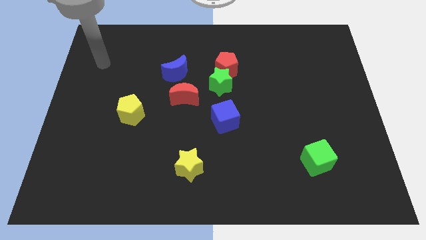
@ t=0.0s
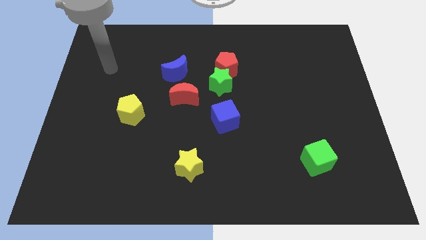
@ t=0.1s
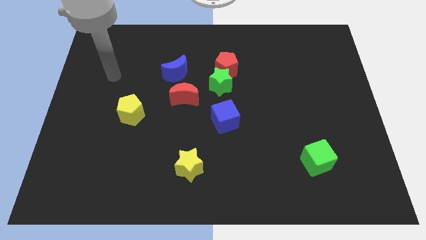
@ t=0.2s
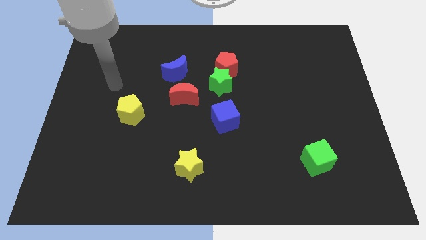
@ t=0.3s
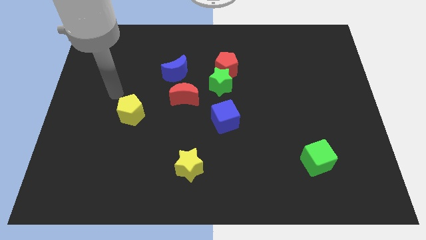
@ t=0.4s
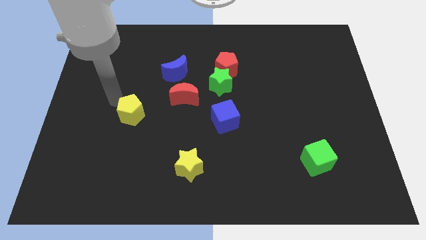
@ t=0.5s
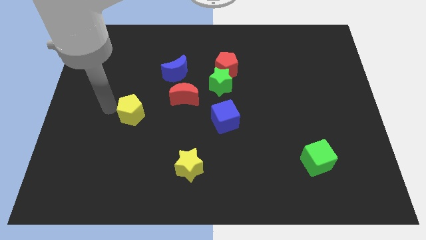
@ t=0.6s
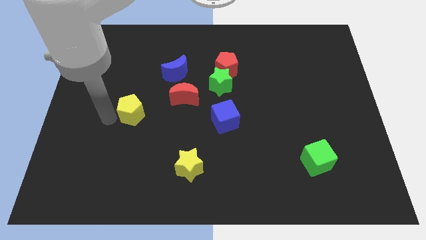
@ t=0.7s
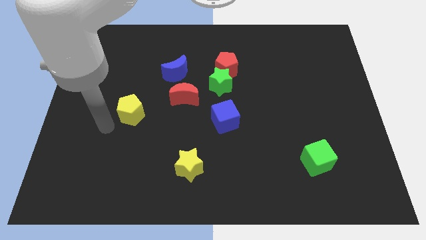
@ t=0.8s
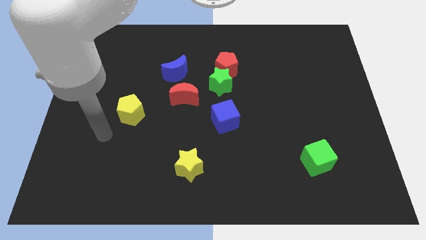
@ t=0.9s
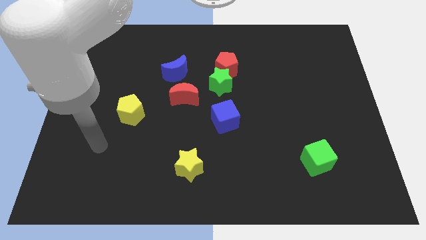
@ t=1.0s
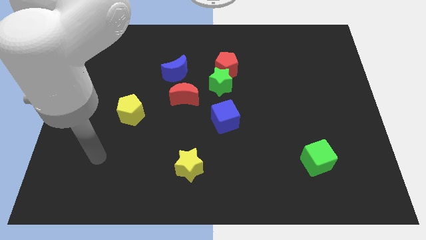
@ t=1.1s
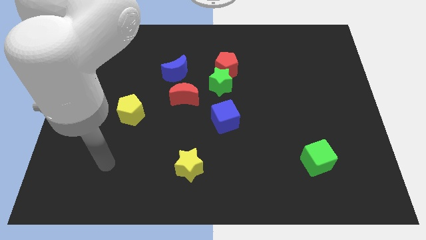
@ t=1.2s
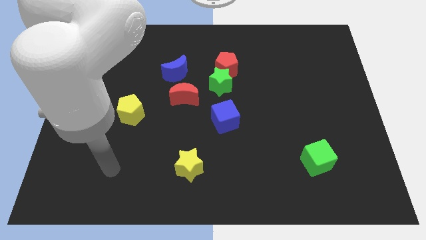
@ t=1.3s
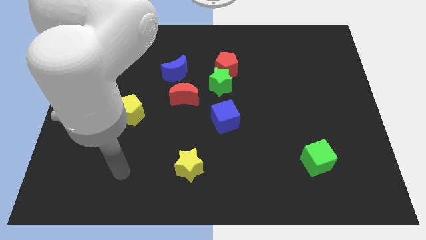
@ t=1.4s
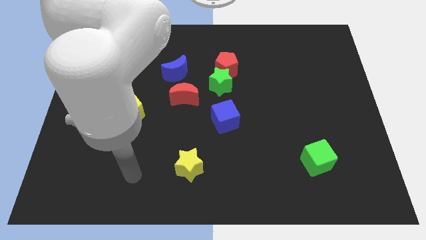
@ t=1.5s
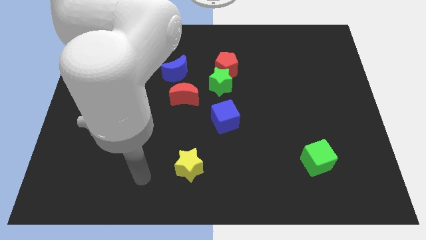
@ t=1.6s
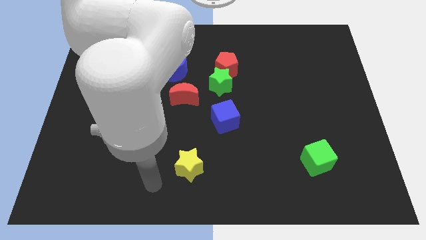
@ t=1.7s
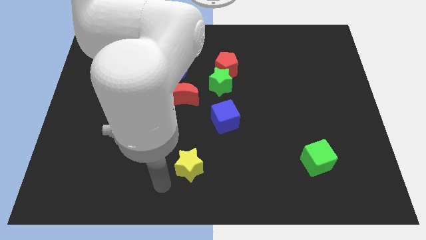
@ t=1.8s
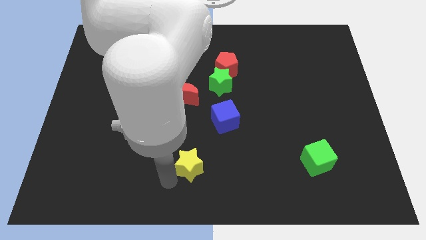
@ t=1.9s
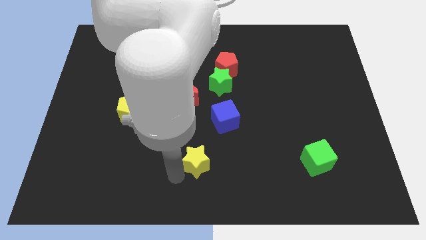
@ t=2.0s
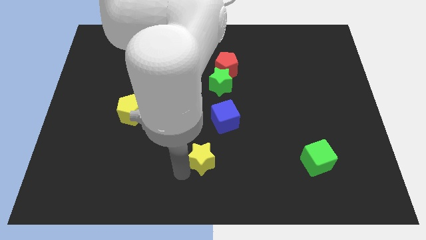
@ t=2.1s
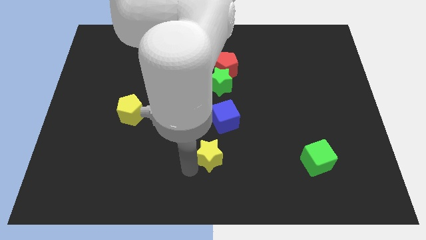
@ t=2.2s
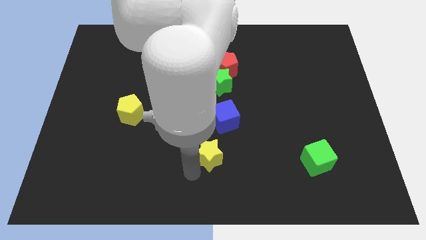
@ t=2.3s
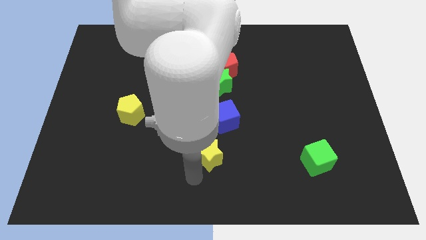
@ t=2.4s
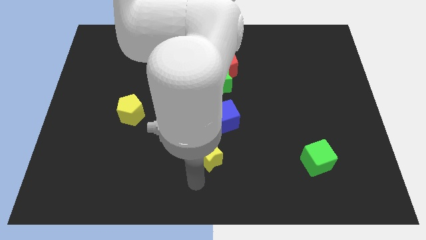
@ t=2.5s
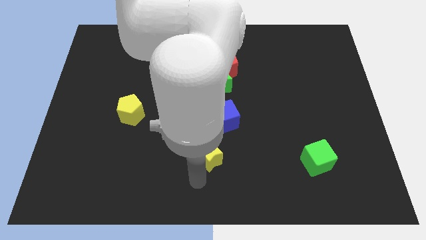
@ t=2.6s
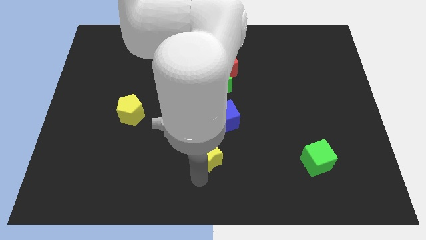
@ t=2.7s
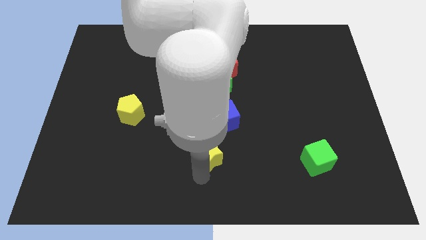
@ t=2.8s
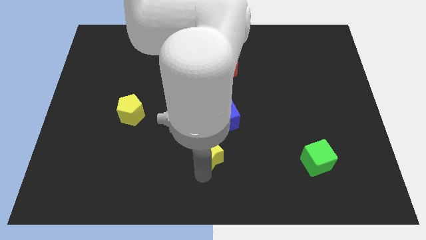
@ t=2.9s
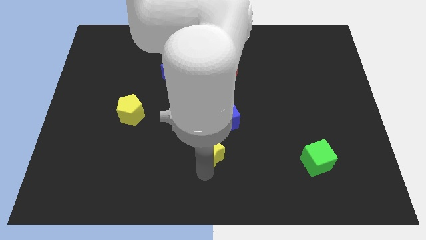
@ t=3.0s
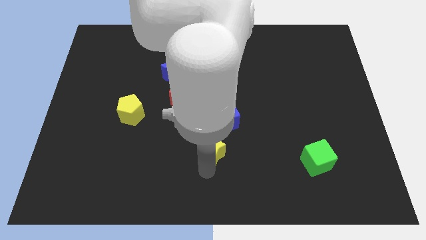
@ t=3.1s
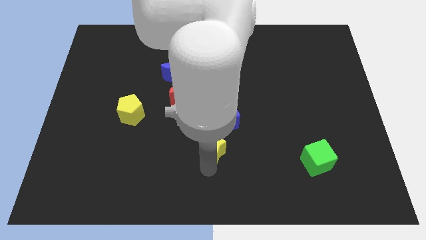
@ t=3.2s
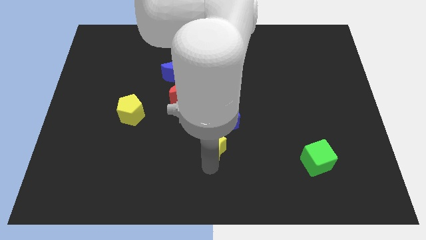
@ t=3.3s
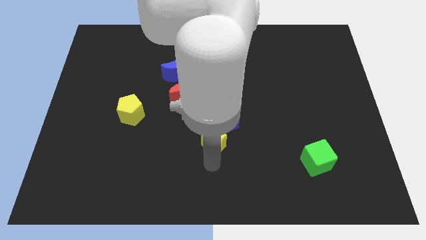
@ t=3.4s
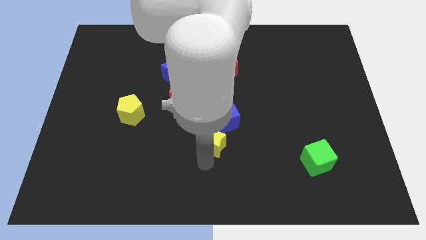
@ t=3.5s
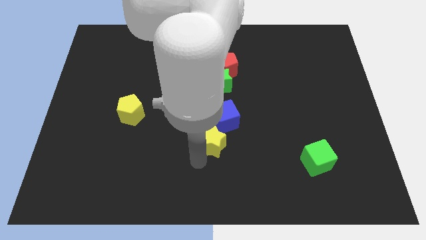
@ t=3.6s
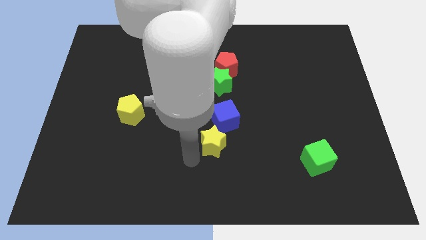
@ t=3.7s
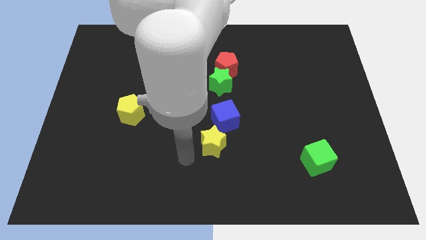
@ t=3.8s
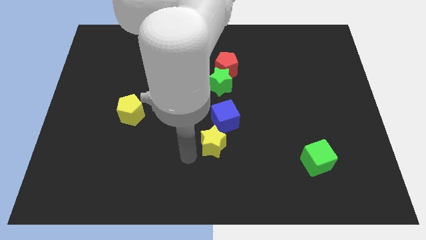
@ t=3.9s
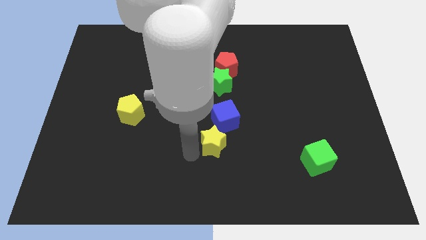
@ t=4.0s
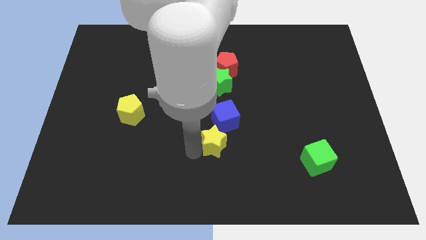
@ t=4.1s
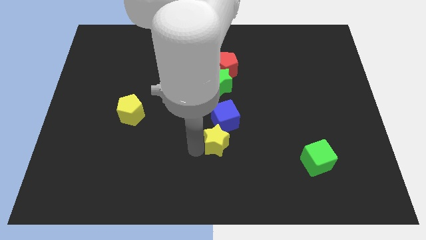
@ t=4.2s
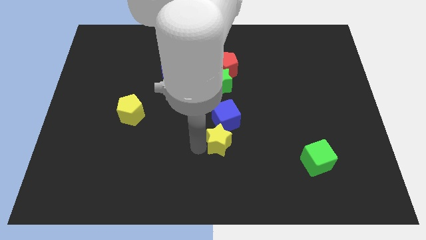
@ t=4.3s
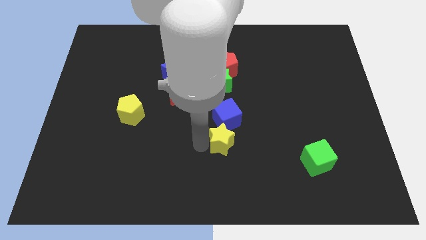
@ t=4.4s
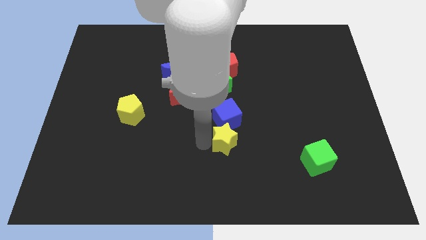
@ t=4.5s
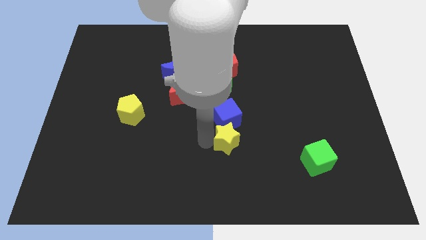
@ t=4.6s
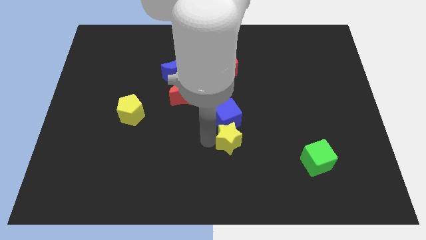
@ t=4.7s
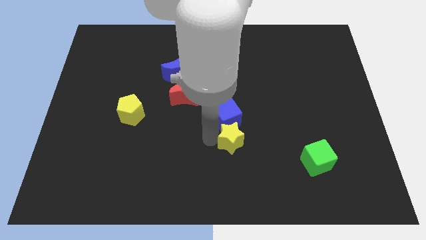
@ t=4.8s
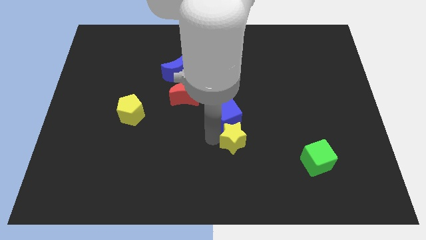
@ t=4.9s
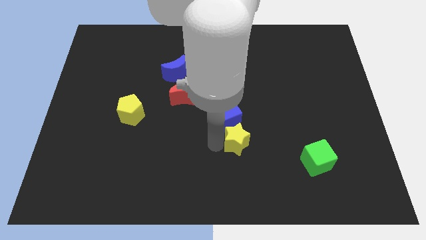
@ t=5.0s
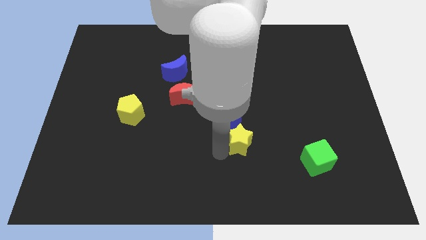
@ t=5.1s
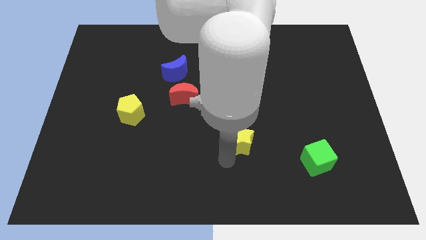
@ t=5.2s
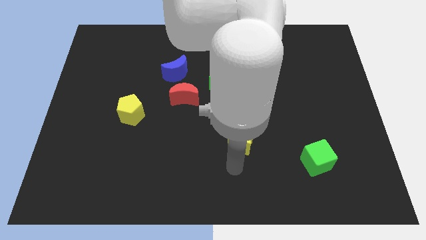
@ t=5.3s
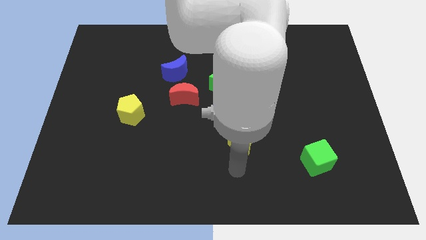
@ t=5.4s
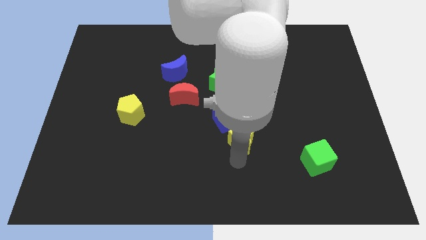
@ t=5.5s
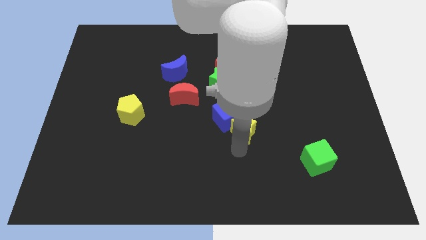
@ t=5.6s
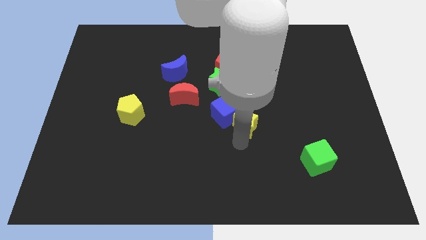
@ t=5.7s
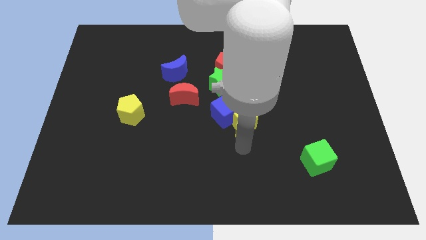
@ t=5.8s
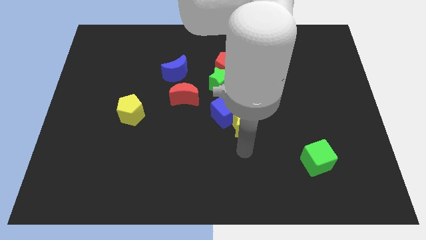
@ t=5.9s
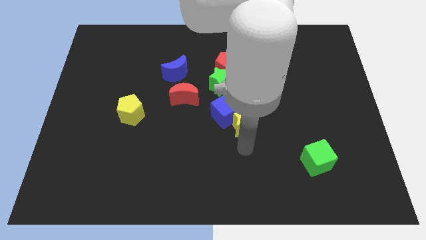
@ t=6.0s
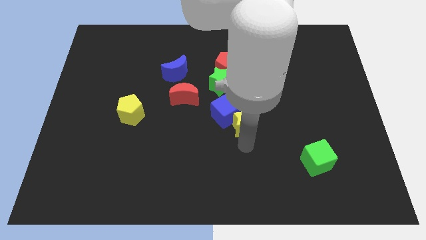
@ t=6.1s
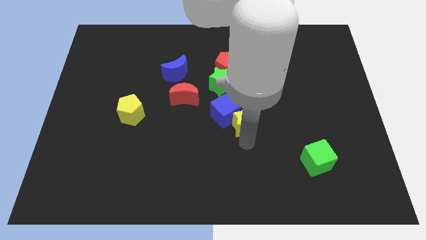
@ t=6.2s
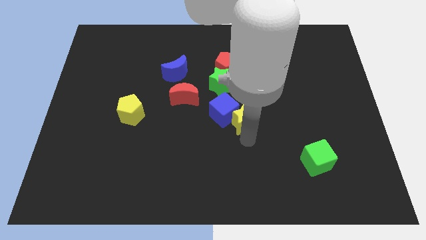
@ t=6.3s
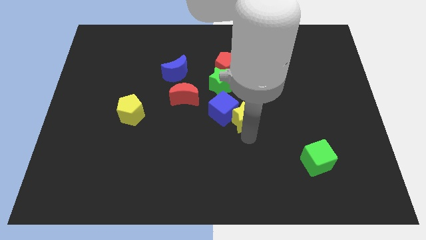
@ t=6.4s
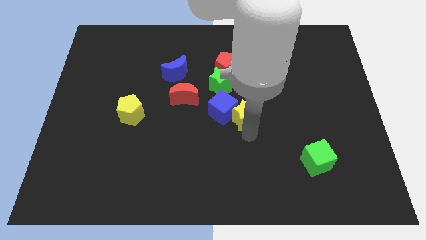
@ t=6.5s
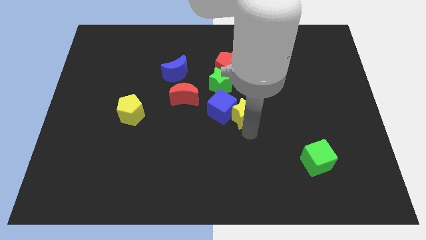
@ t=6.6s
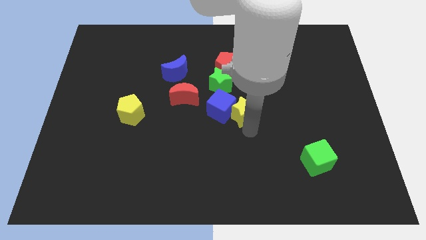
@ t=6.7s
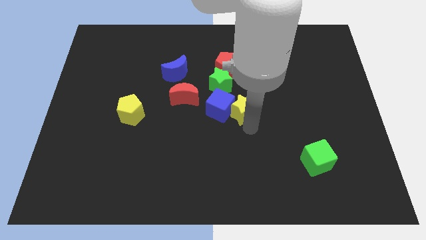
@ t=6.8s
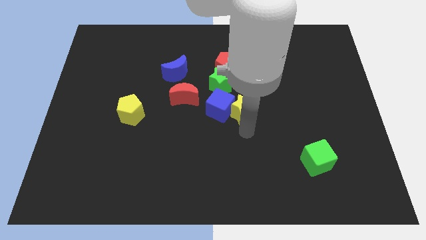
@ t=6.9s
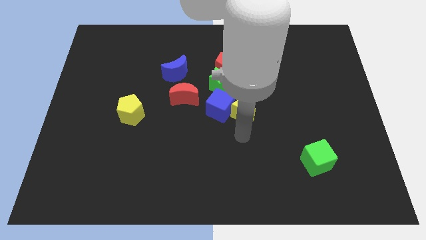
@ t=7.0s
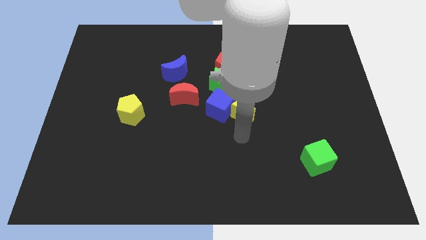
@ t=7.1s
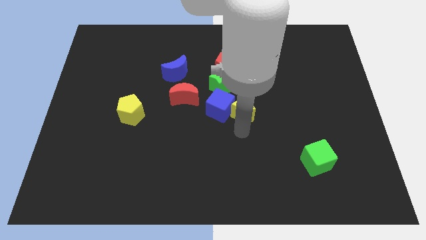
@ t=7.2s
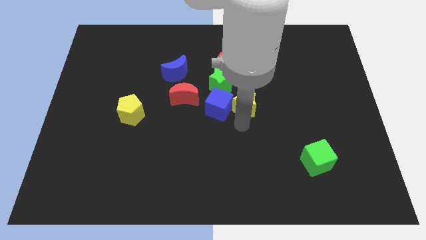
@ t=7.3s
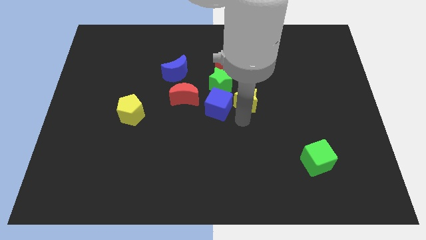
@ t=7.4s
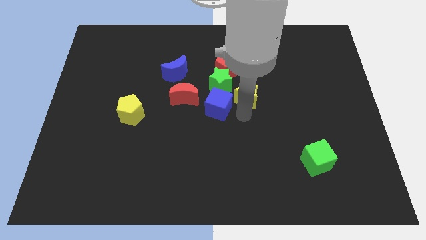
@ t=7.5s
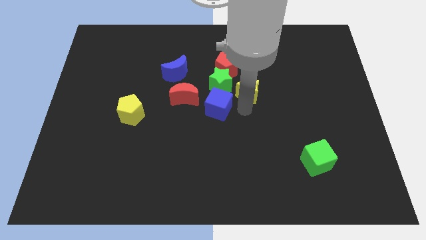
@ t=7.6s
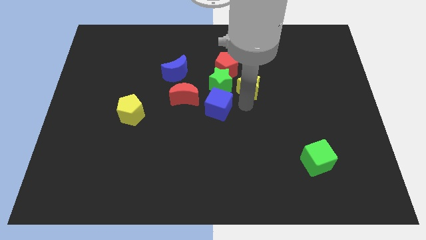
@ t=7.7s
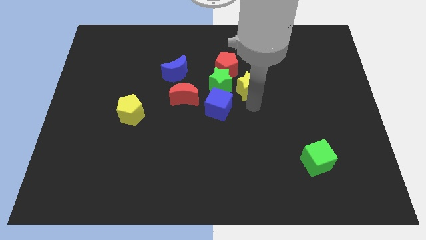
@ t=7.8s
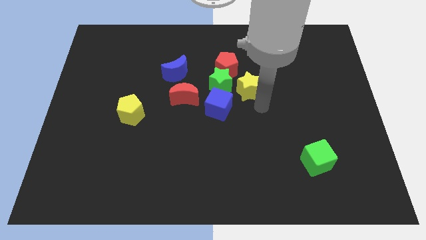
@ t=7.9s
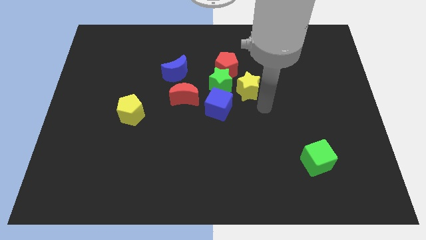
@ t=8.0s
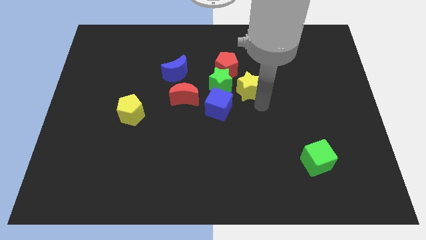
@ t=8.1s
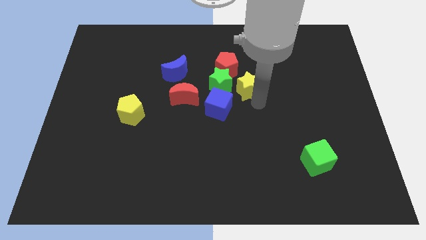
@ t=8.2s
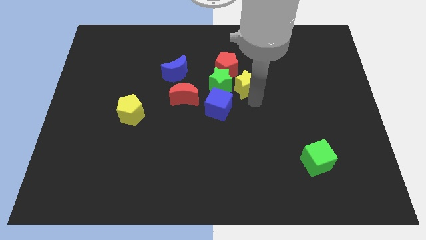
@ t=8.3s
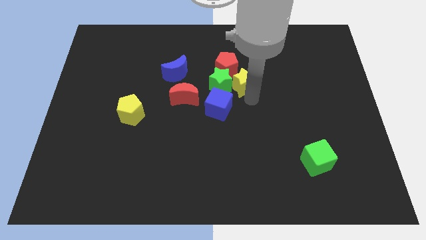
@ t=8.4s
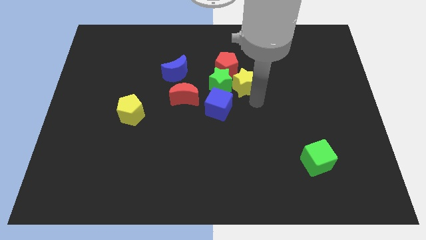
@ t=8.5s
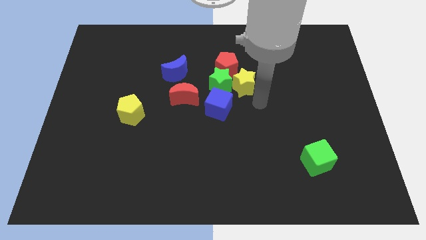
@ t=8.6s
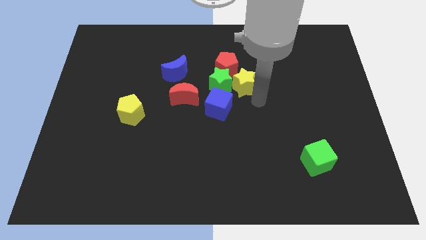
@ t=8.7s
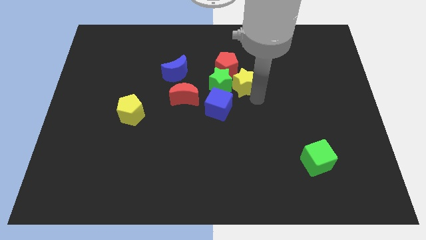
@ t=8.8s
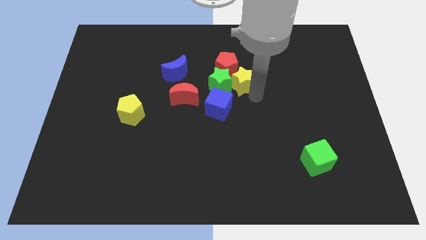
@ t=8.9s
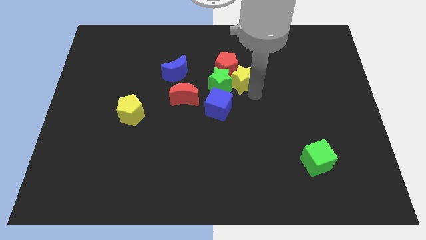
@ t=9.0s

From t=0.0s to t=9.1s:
move the yellow star to the red pentagon
